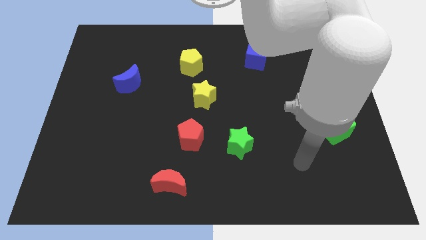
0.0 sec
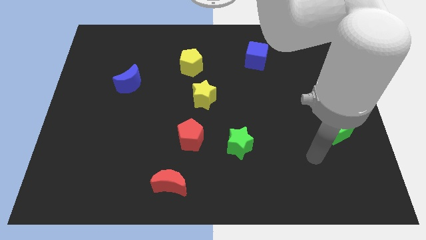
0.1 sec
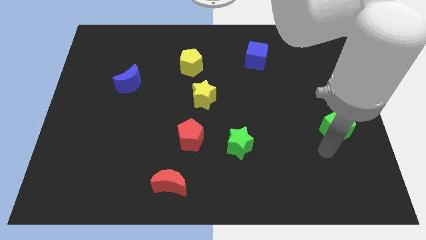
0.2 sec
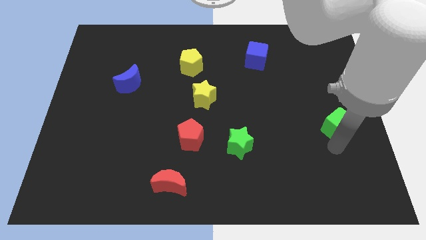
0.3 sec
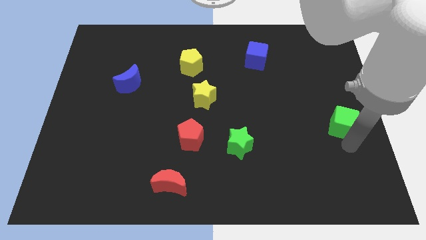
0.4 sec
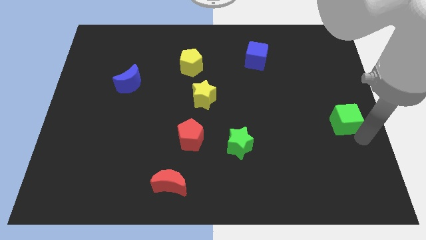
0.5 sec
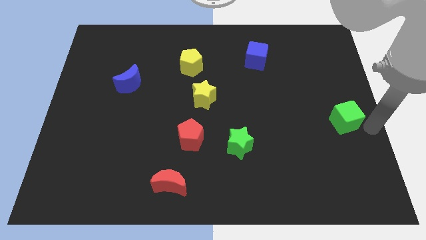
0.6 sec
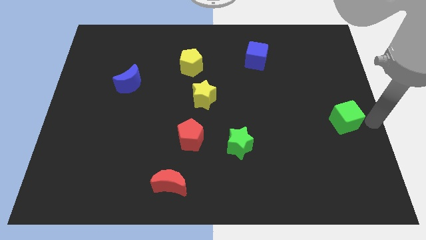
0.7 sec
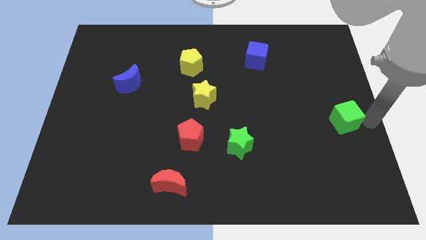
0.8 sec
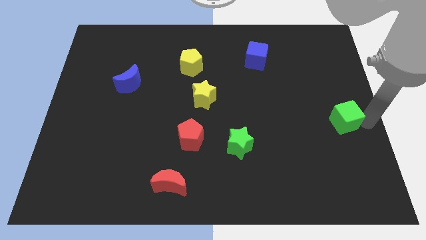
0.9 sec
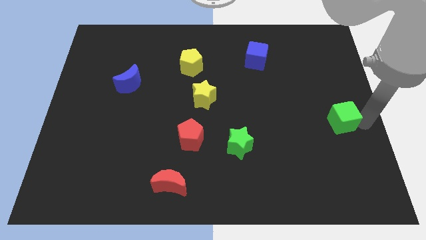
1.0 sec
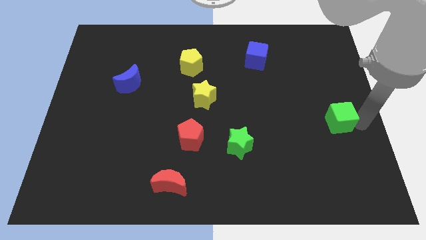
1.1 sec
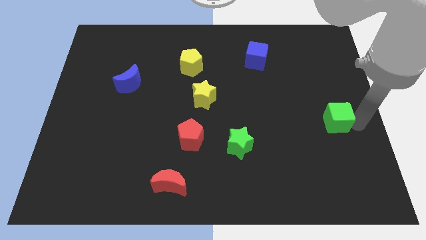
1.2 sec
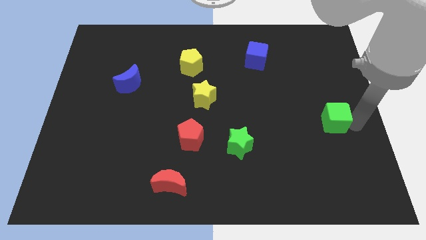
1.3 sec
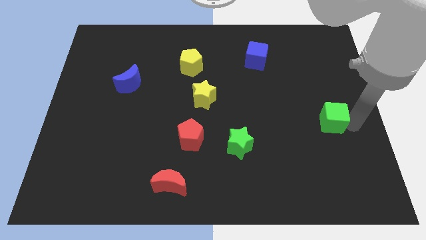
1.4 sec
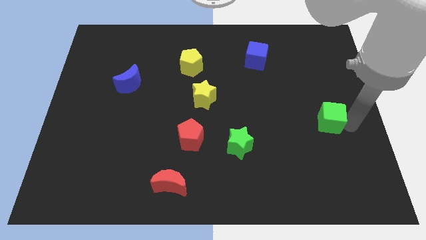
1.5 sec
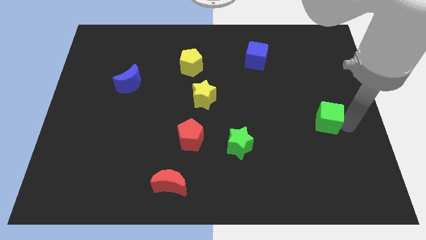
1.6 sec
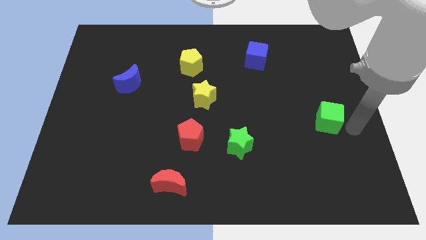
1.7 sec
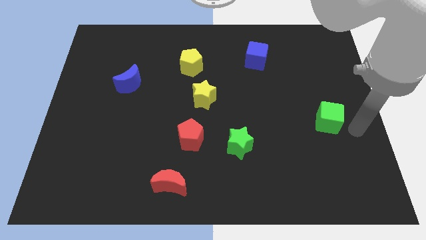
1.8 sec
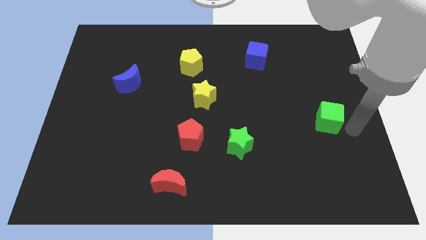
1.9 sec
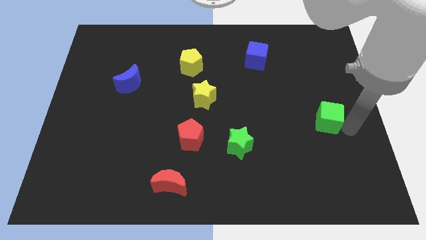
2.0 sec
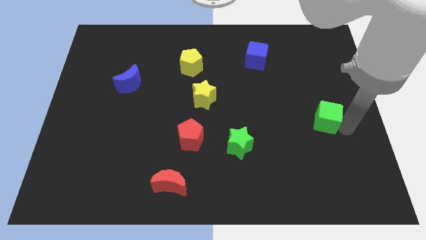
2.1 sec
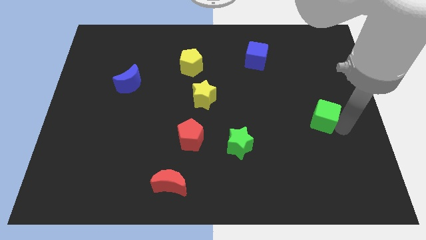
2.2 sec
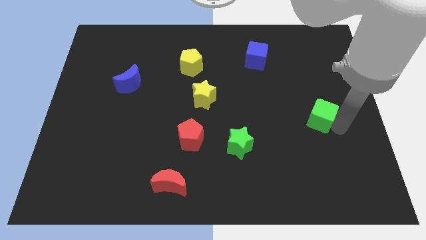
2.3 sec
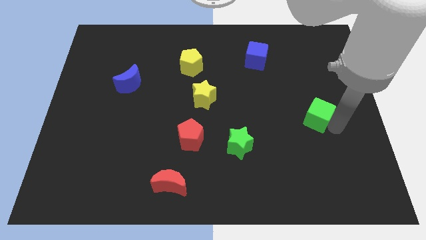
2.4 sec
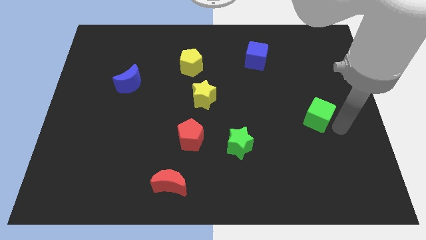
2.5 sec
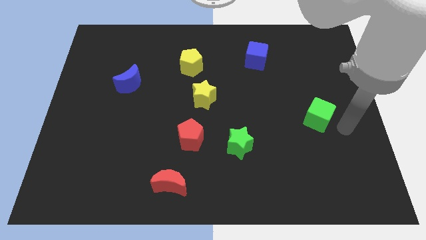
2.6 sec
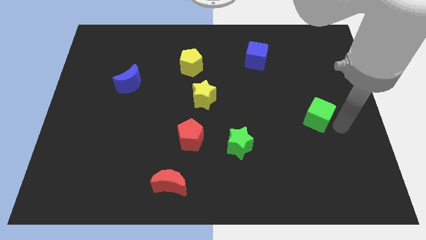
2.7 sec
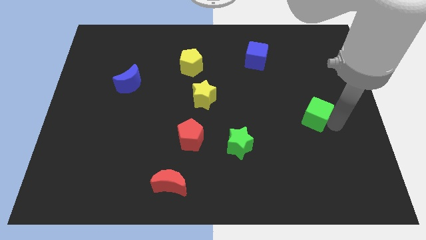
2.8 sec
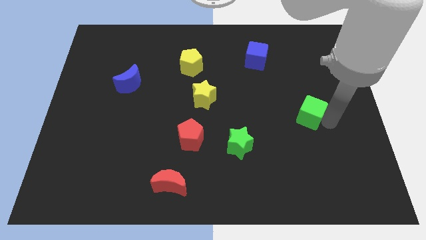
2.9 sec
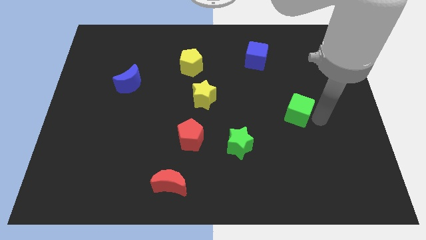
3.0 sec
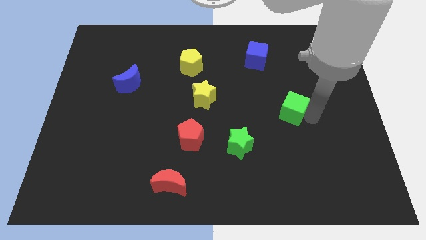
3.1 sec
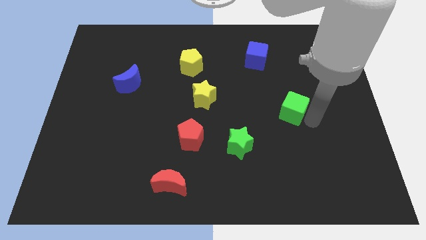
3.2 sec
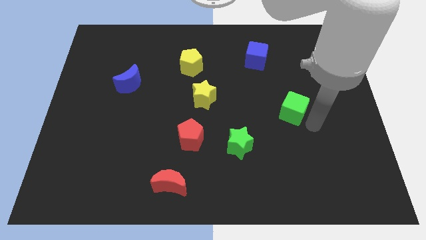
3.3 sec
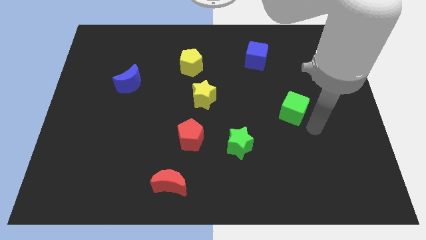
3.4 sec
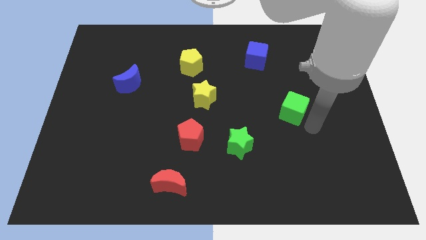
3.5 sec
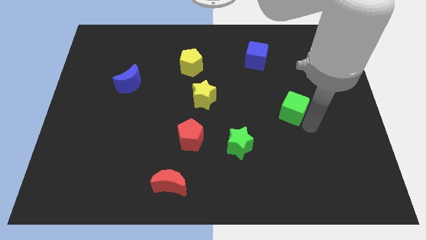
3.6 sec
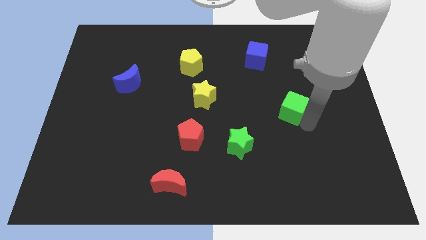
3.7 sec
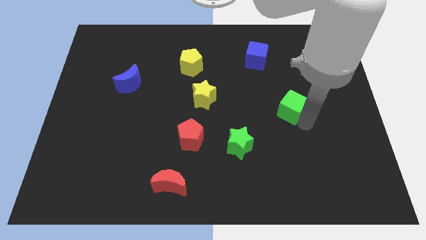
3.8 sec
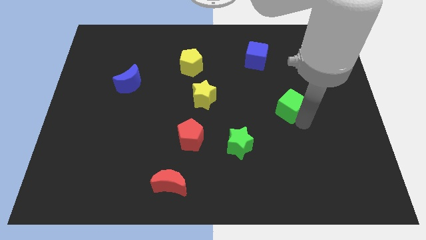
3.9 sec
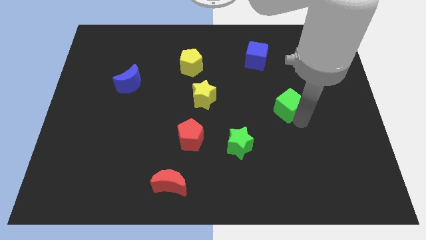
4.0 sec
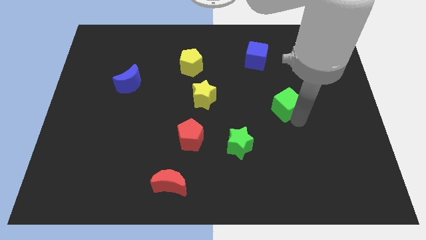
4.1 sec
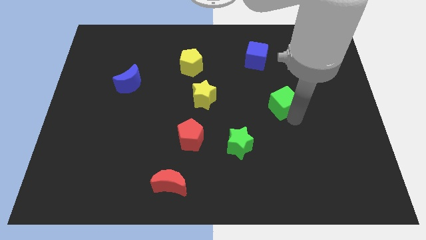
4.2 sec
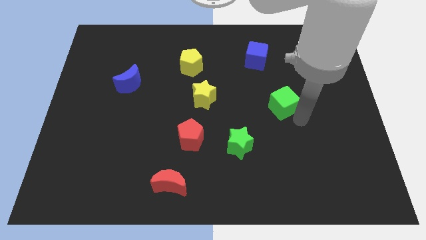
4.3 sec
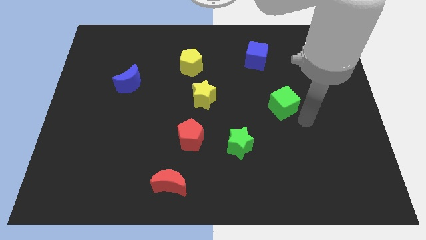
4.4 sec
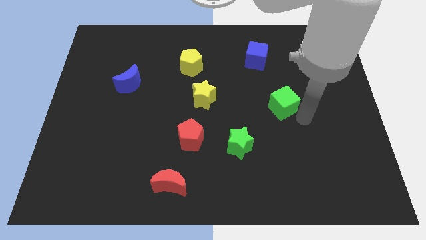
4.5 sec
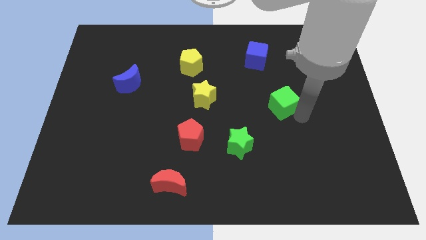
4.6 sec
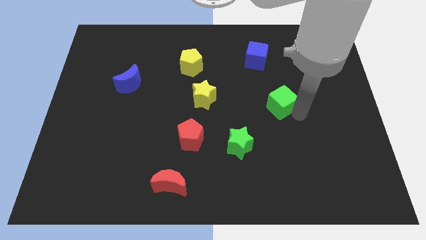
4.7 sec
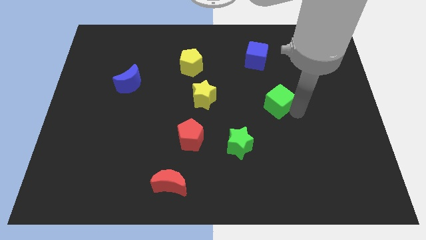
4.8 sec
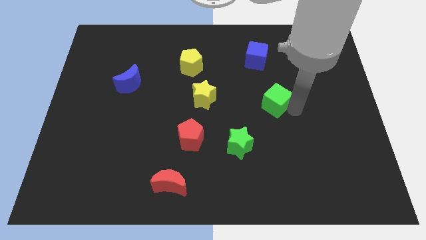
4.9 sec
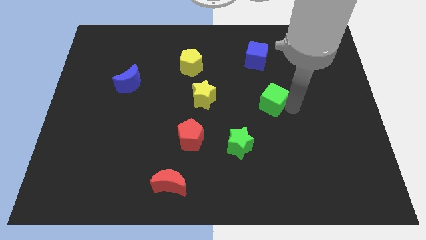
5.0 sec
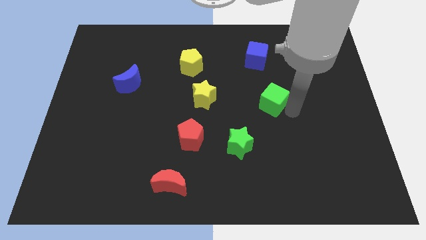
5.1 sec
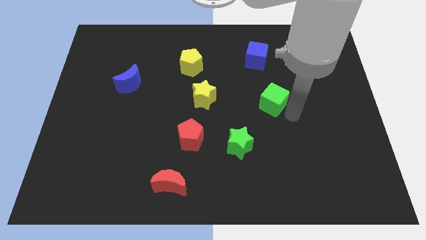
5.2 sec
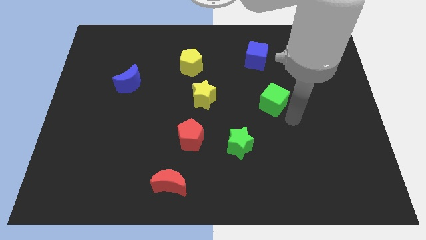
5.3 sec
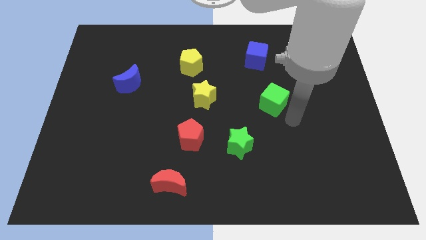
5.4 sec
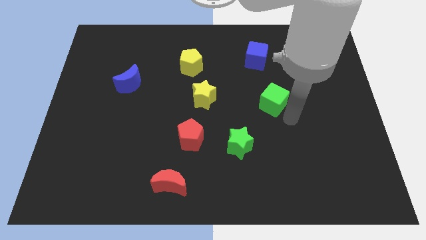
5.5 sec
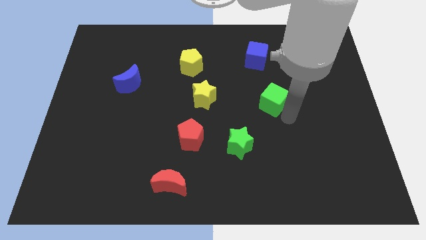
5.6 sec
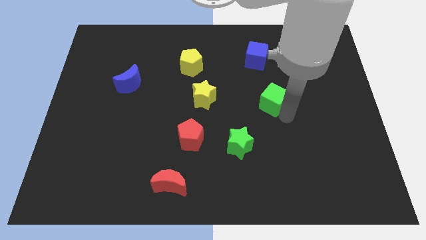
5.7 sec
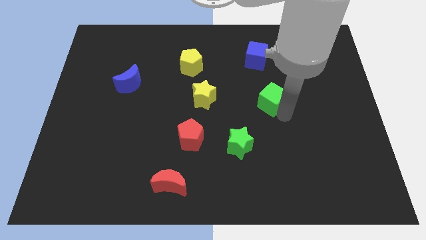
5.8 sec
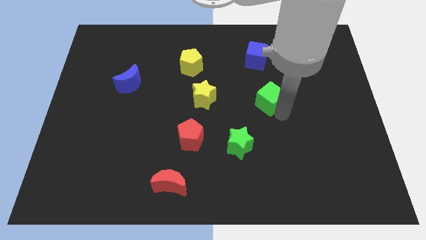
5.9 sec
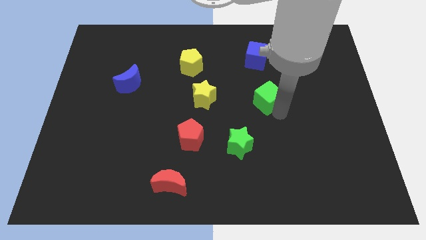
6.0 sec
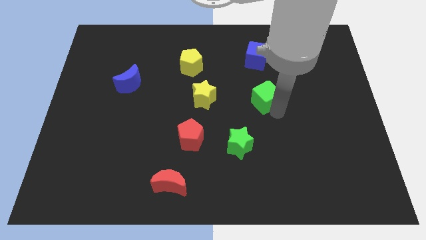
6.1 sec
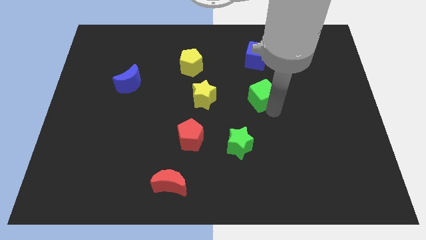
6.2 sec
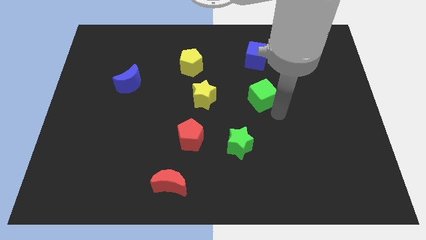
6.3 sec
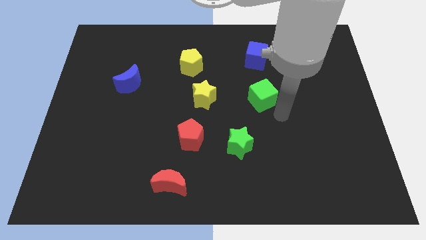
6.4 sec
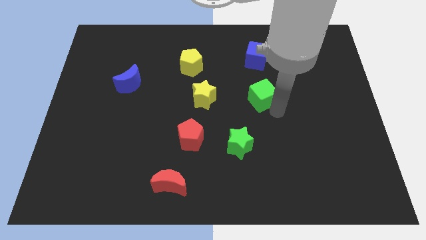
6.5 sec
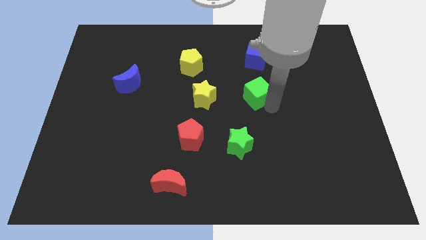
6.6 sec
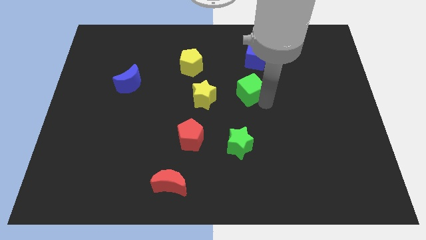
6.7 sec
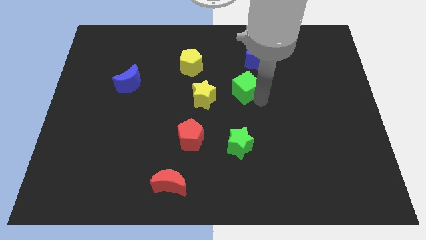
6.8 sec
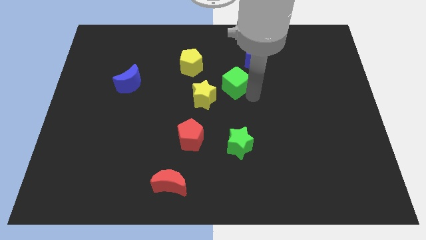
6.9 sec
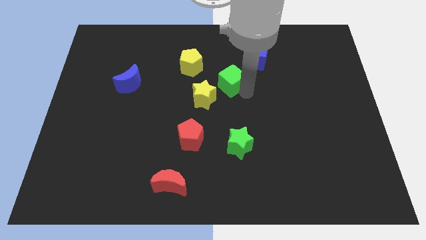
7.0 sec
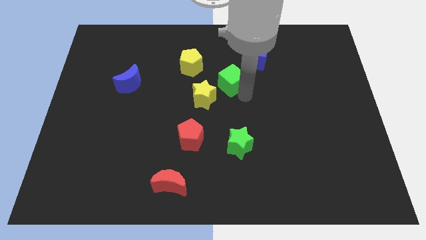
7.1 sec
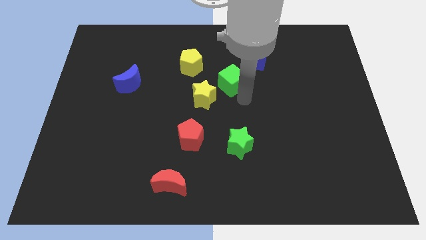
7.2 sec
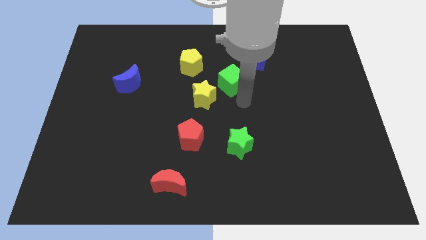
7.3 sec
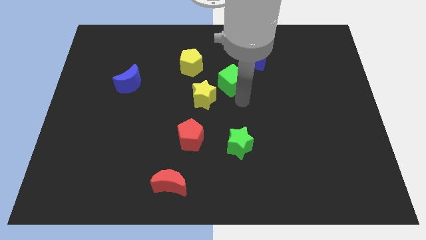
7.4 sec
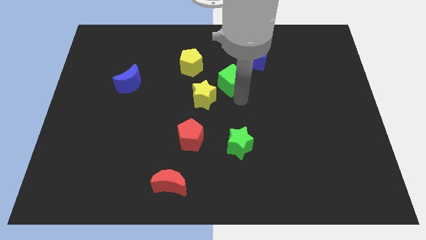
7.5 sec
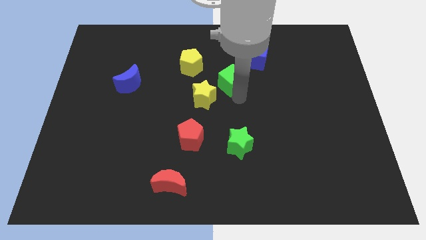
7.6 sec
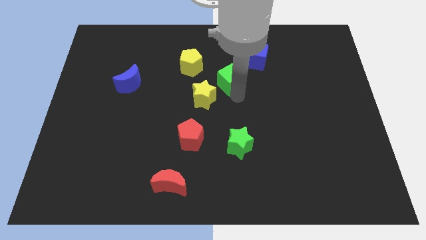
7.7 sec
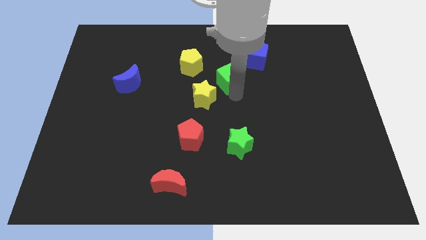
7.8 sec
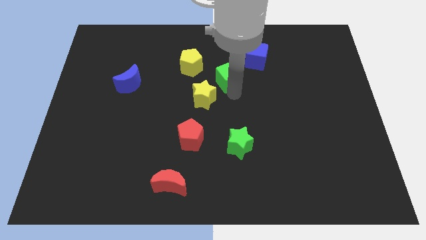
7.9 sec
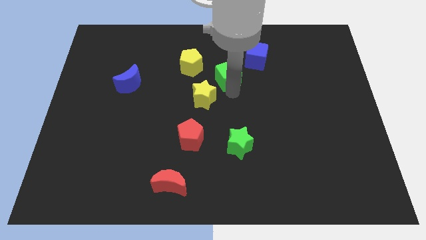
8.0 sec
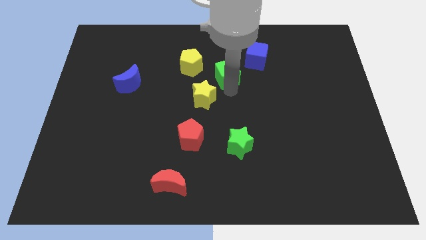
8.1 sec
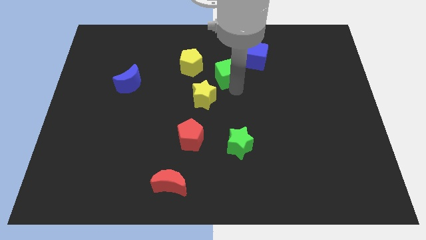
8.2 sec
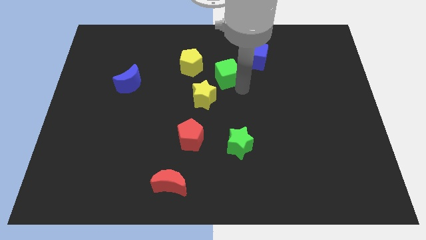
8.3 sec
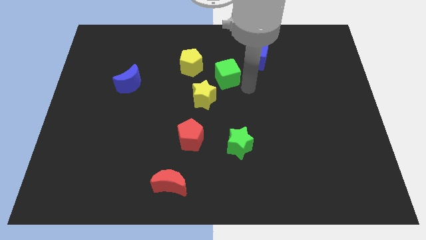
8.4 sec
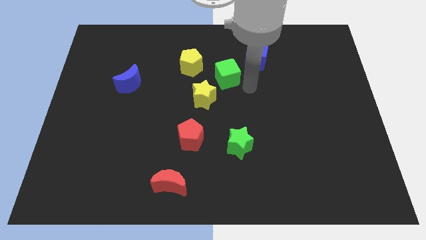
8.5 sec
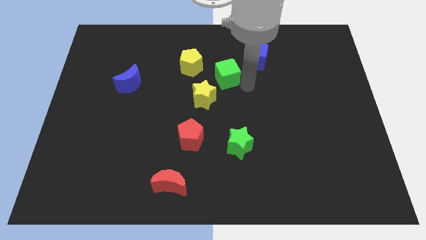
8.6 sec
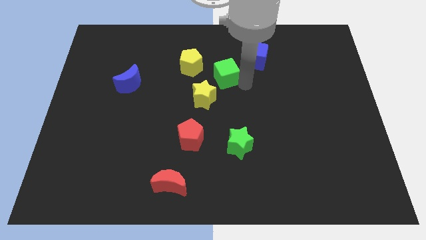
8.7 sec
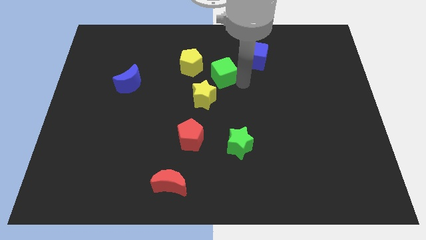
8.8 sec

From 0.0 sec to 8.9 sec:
put the green cube to the top of the yellow star
